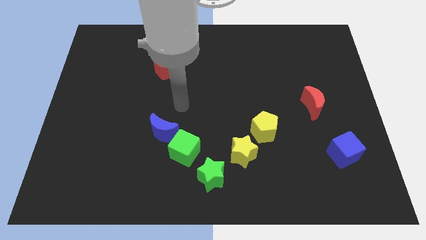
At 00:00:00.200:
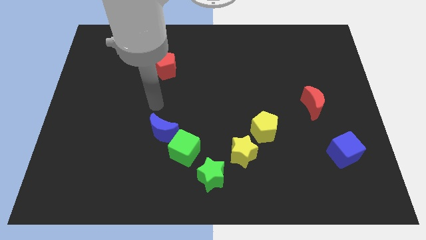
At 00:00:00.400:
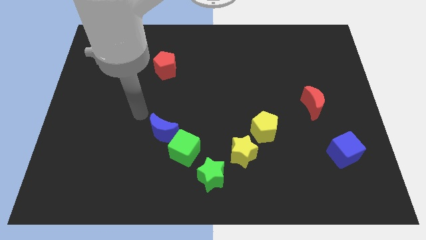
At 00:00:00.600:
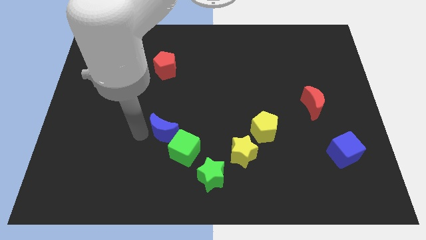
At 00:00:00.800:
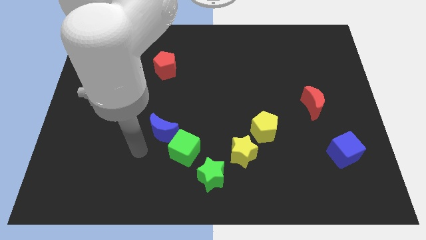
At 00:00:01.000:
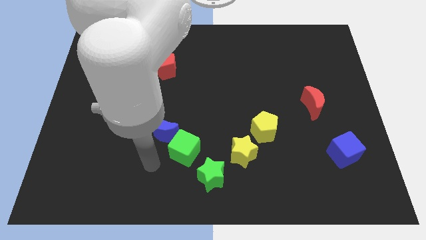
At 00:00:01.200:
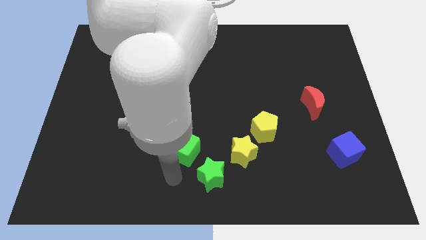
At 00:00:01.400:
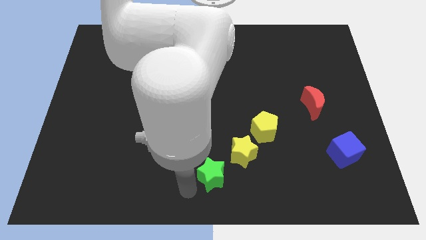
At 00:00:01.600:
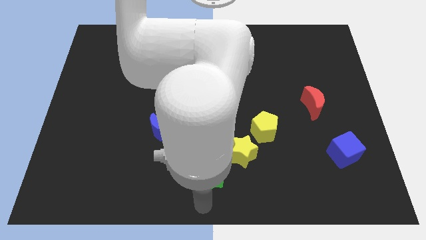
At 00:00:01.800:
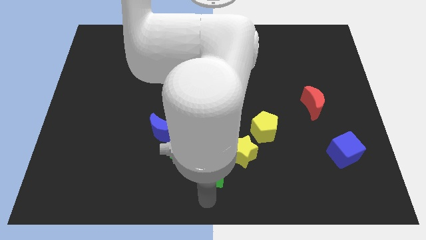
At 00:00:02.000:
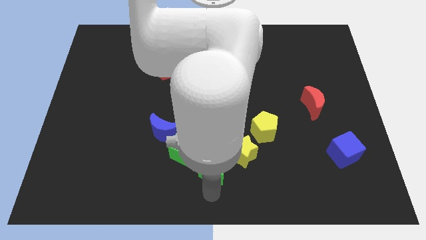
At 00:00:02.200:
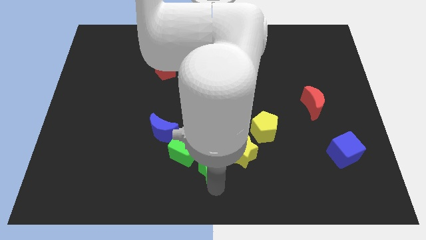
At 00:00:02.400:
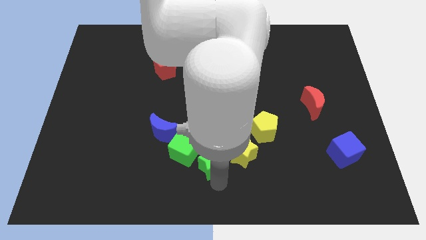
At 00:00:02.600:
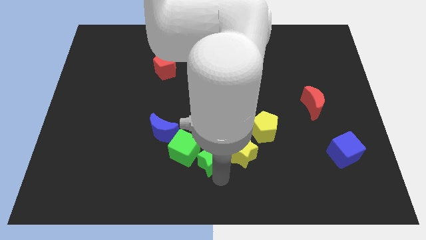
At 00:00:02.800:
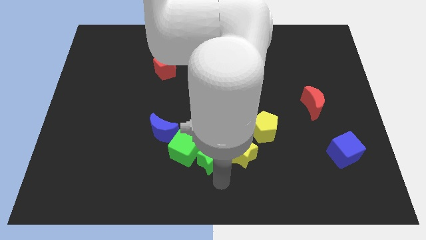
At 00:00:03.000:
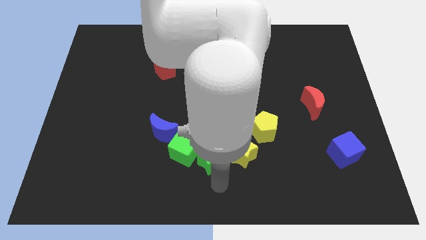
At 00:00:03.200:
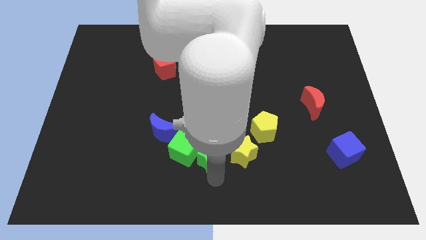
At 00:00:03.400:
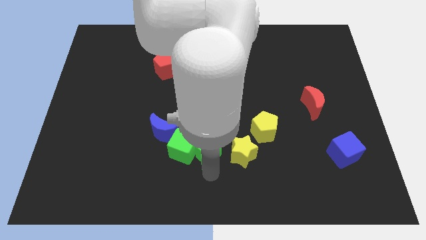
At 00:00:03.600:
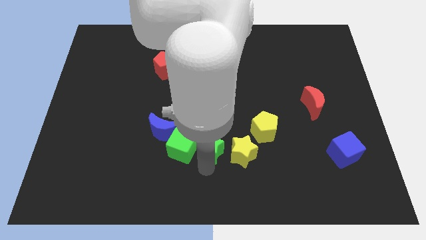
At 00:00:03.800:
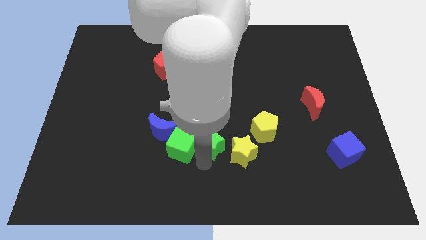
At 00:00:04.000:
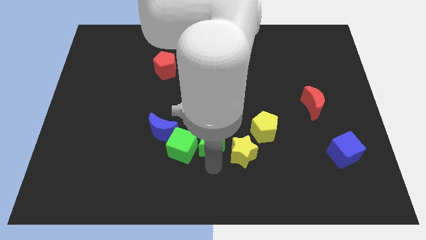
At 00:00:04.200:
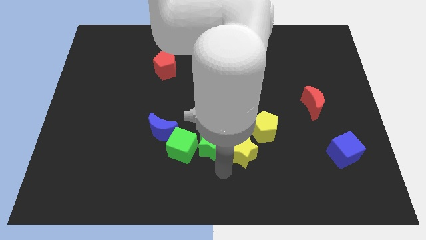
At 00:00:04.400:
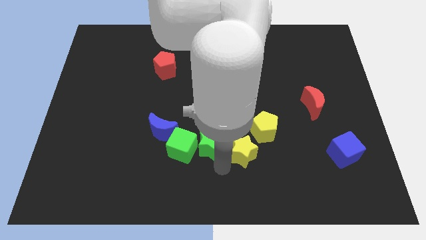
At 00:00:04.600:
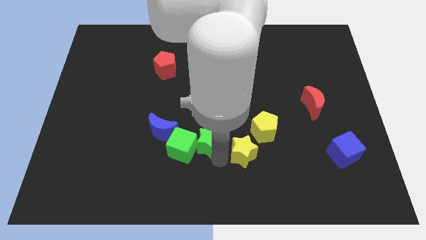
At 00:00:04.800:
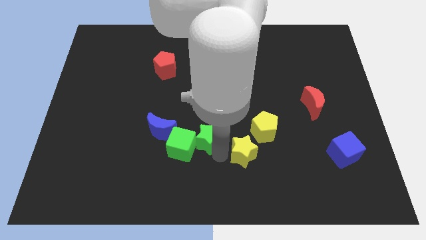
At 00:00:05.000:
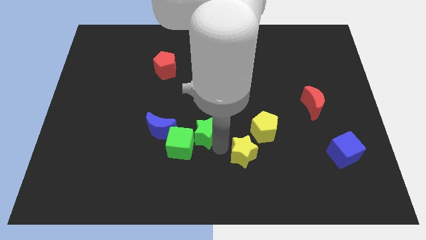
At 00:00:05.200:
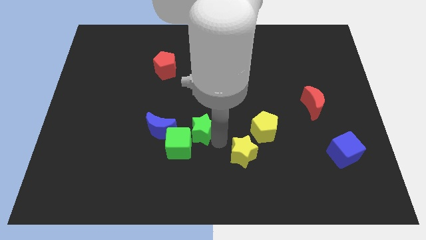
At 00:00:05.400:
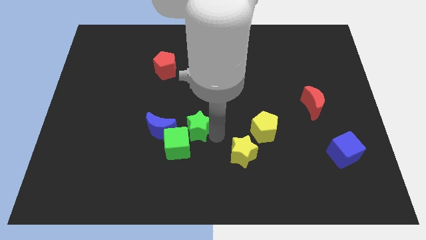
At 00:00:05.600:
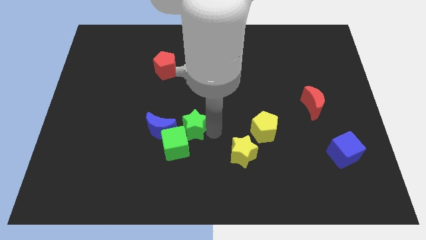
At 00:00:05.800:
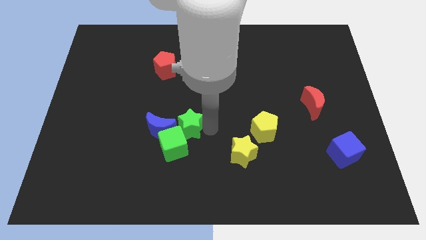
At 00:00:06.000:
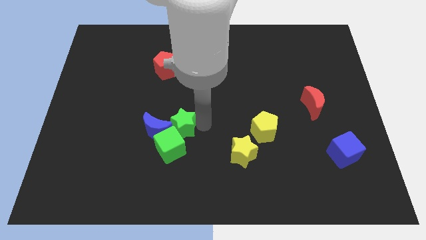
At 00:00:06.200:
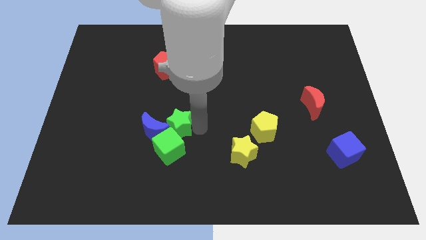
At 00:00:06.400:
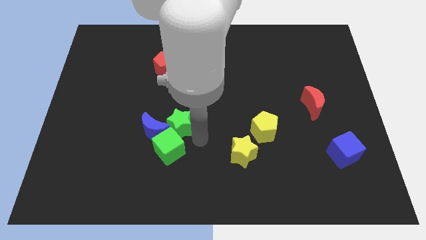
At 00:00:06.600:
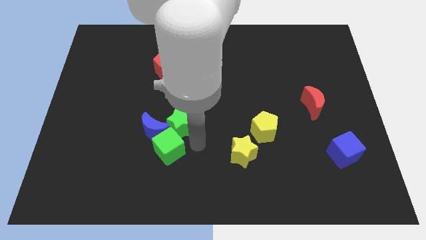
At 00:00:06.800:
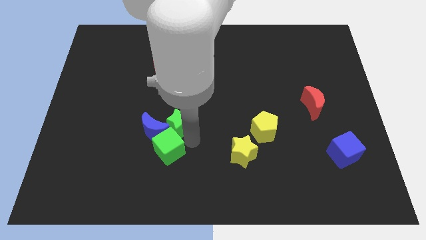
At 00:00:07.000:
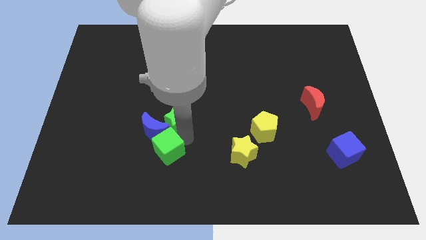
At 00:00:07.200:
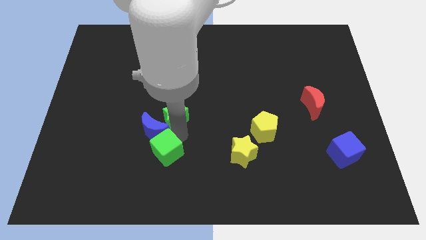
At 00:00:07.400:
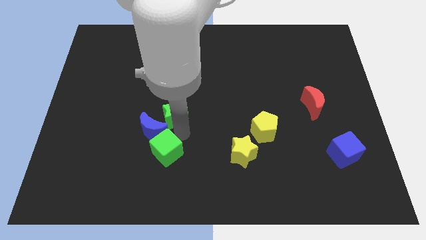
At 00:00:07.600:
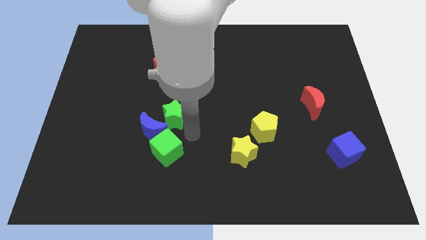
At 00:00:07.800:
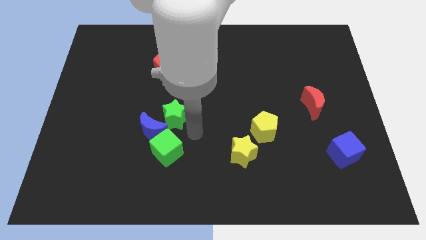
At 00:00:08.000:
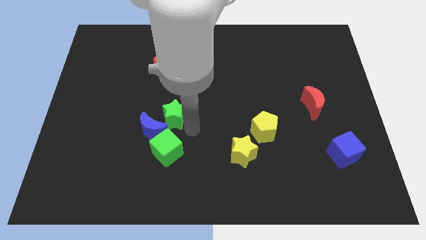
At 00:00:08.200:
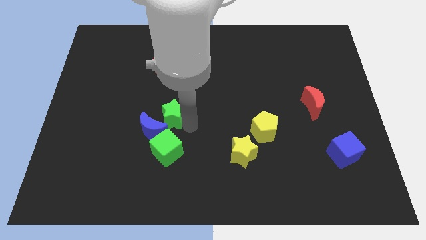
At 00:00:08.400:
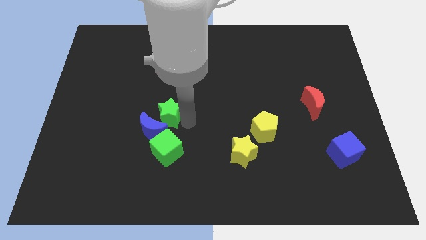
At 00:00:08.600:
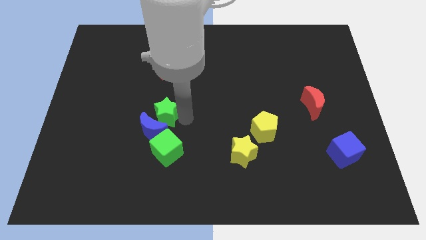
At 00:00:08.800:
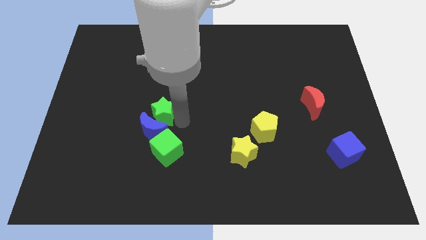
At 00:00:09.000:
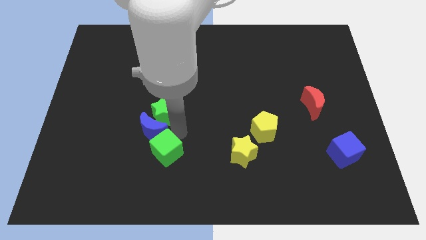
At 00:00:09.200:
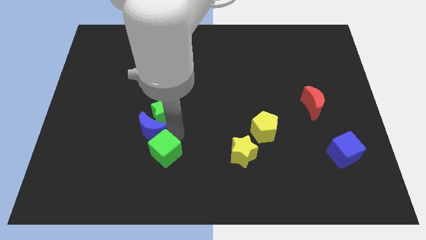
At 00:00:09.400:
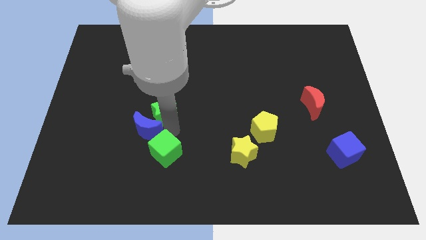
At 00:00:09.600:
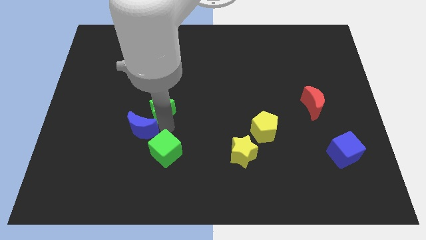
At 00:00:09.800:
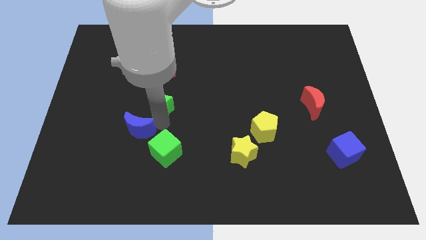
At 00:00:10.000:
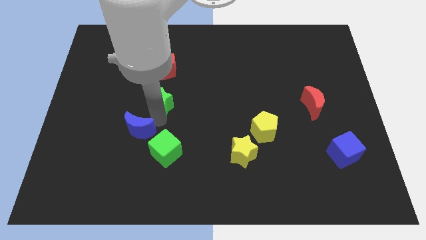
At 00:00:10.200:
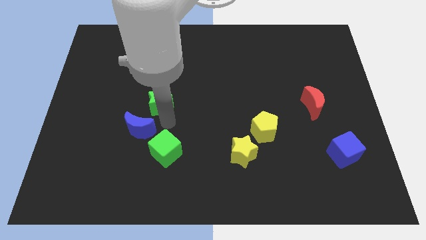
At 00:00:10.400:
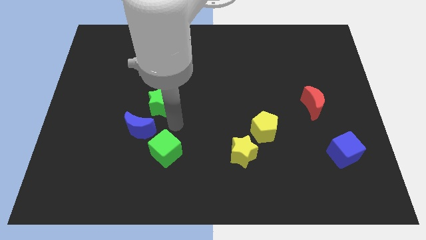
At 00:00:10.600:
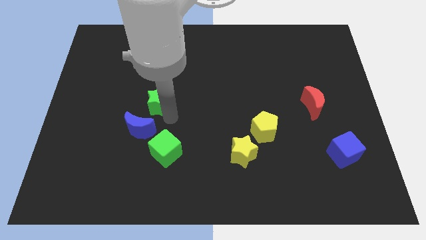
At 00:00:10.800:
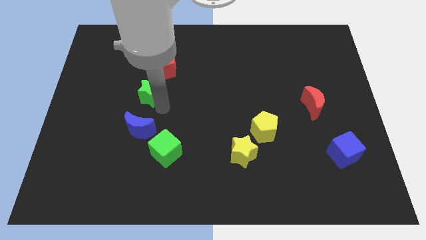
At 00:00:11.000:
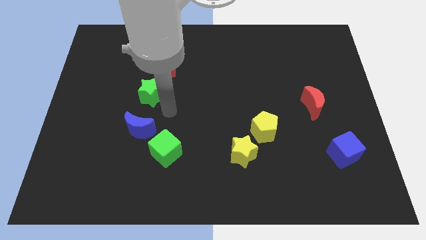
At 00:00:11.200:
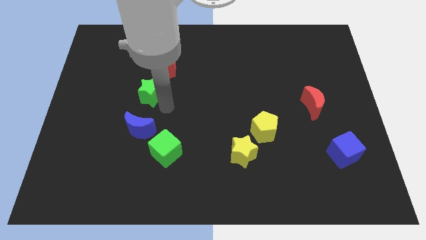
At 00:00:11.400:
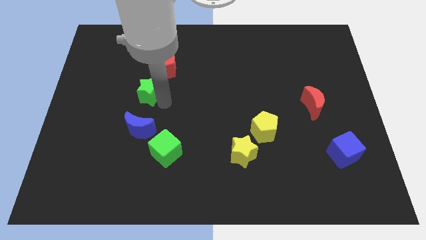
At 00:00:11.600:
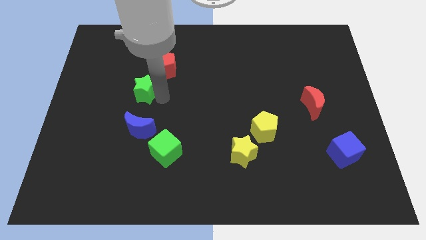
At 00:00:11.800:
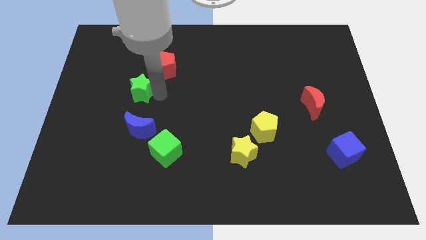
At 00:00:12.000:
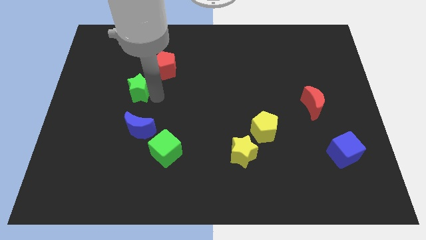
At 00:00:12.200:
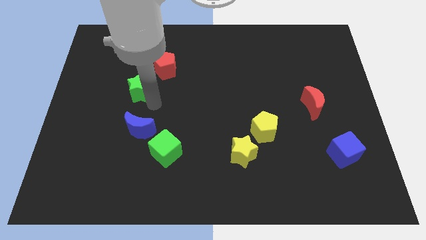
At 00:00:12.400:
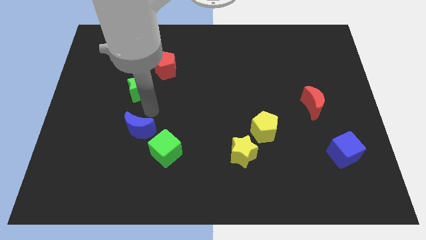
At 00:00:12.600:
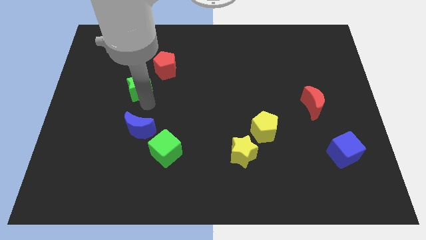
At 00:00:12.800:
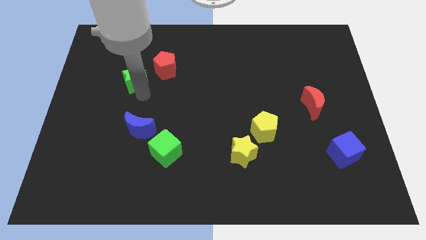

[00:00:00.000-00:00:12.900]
put the green star to the left side of the red pentagon

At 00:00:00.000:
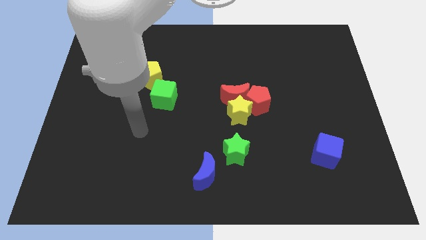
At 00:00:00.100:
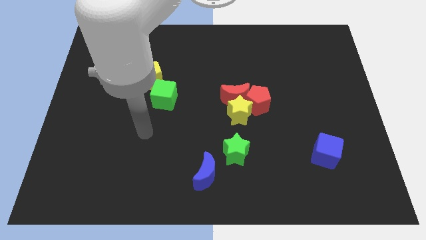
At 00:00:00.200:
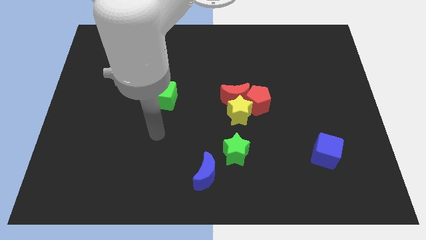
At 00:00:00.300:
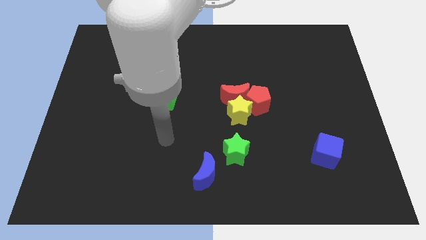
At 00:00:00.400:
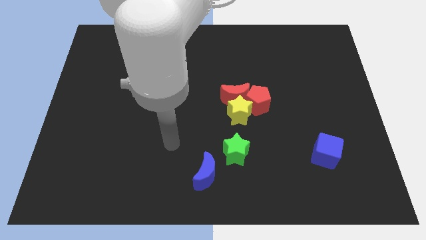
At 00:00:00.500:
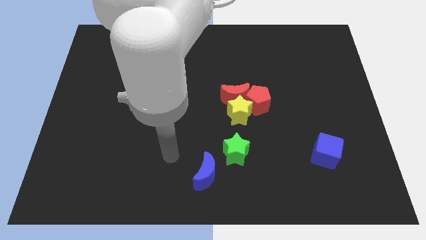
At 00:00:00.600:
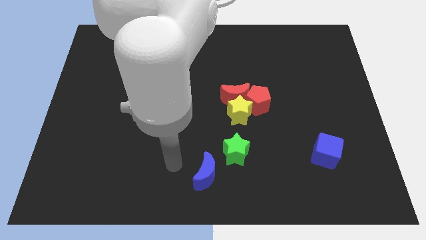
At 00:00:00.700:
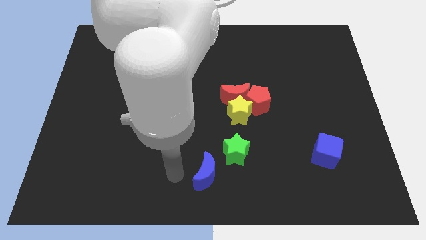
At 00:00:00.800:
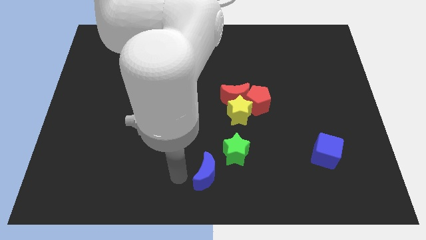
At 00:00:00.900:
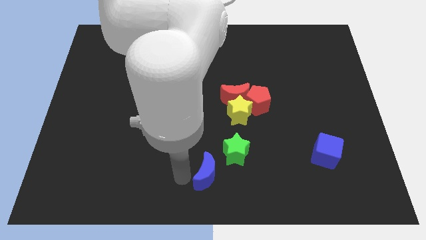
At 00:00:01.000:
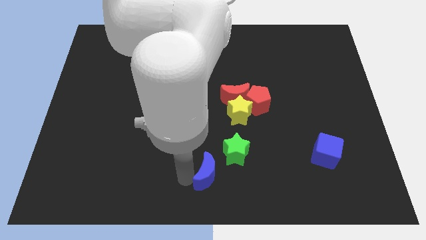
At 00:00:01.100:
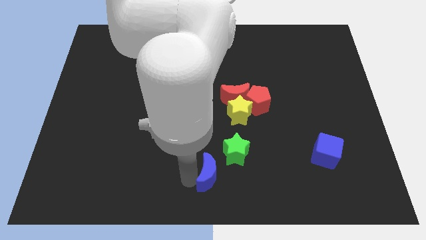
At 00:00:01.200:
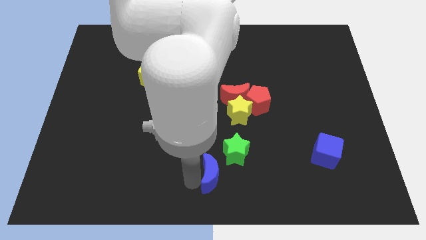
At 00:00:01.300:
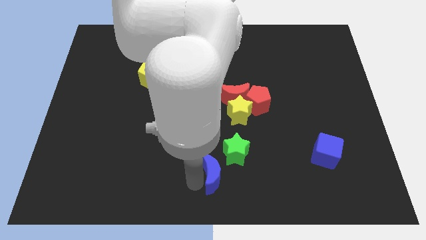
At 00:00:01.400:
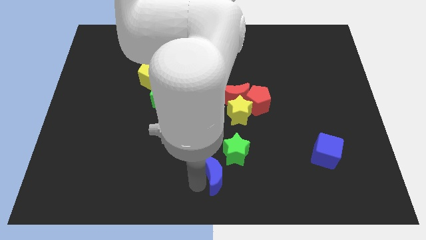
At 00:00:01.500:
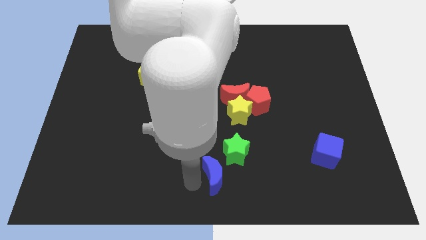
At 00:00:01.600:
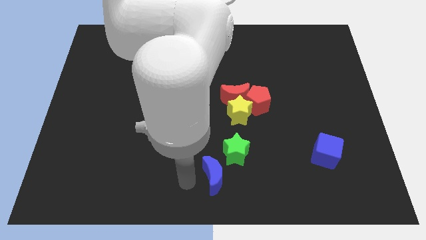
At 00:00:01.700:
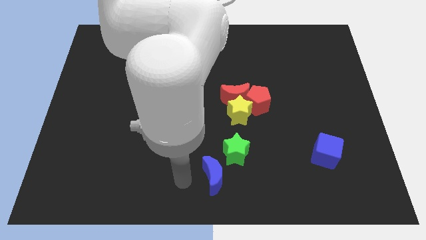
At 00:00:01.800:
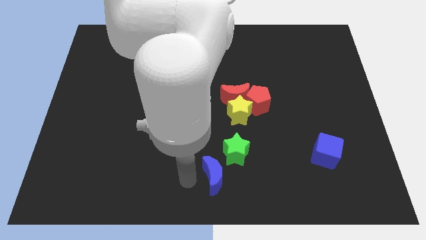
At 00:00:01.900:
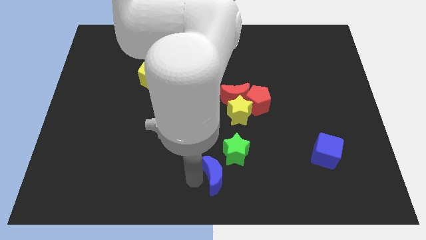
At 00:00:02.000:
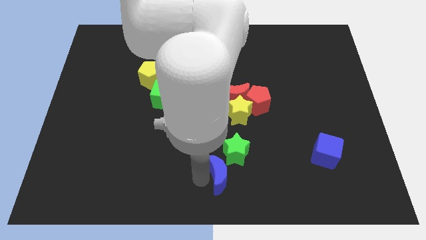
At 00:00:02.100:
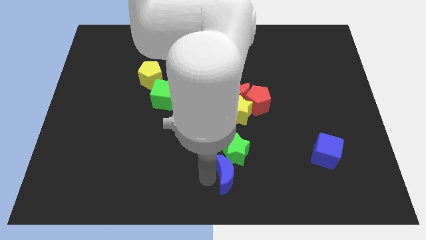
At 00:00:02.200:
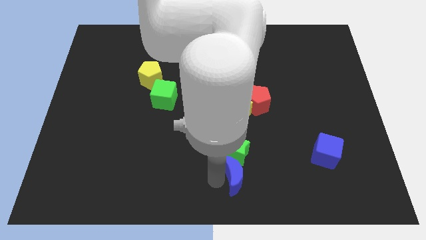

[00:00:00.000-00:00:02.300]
move the blue moon to the bottom of the yellow star
